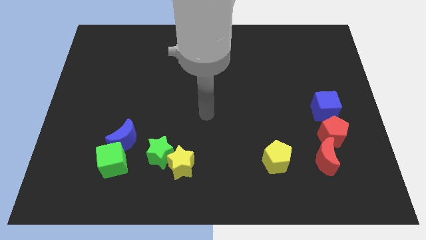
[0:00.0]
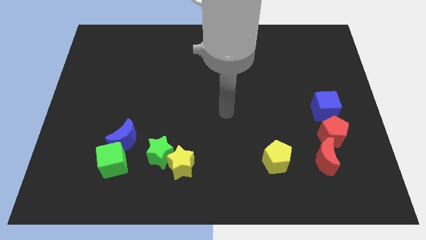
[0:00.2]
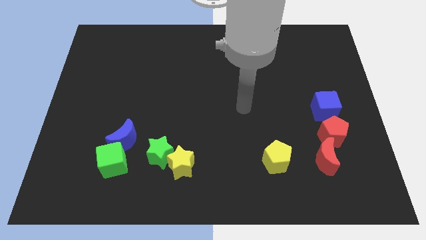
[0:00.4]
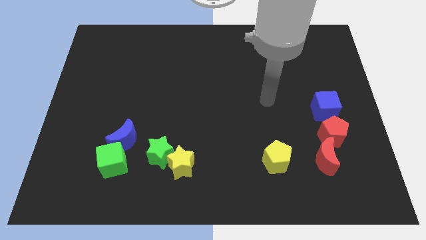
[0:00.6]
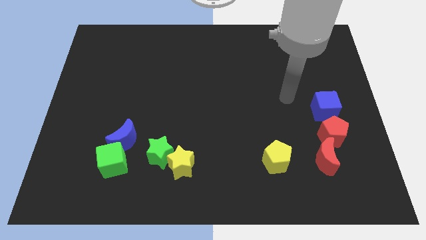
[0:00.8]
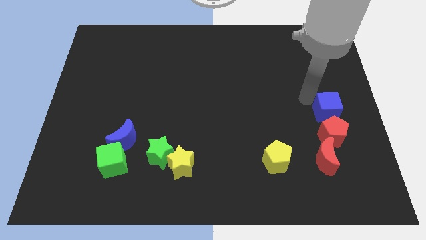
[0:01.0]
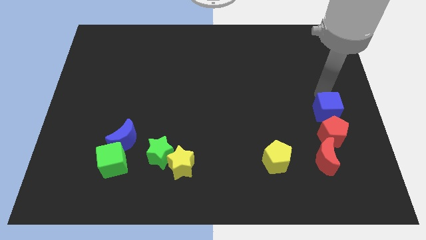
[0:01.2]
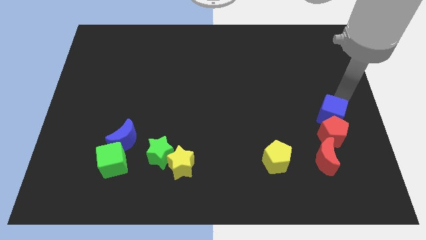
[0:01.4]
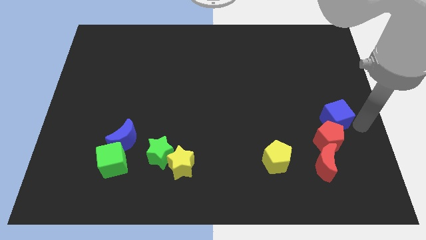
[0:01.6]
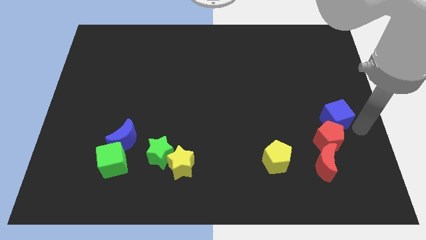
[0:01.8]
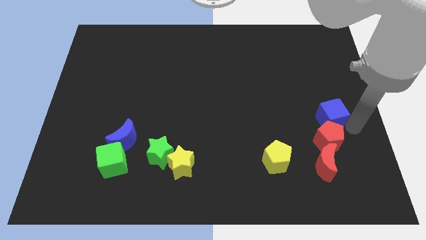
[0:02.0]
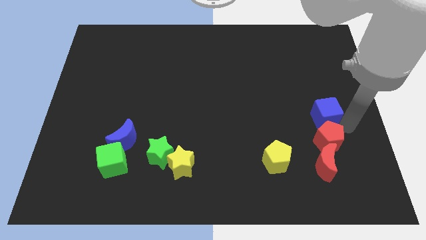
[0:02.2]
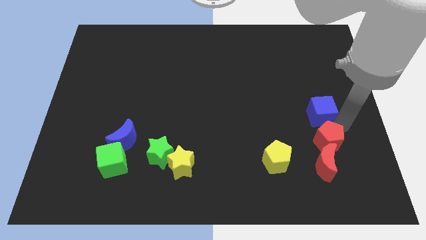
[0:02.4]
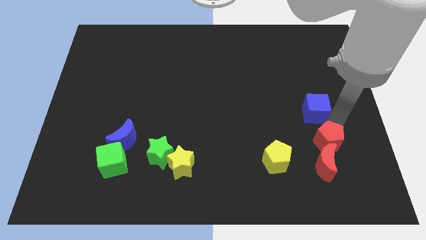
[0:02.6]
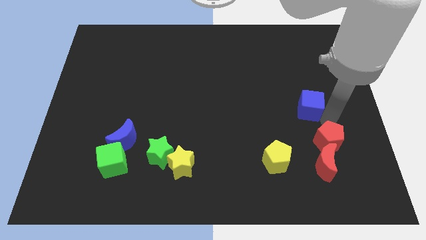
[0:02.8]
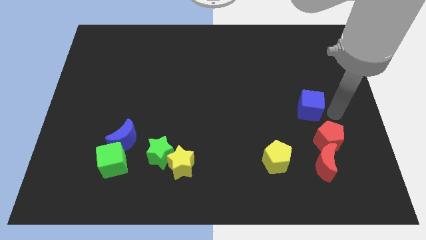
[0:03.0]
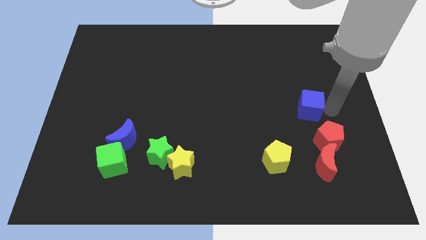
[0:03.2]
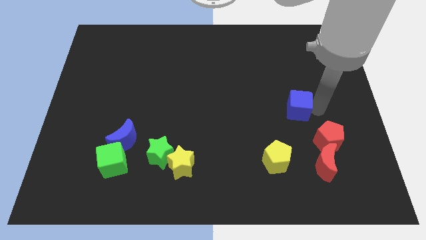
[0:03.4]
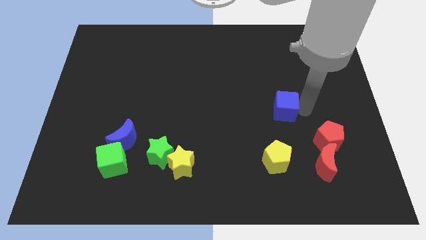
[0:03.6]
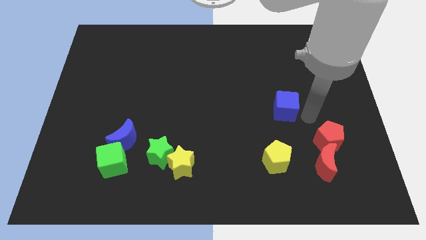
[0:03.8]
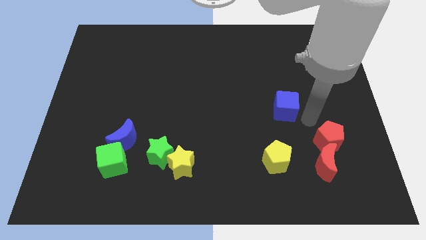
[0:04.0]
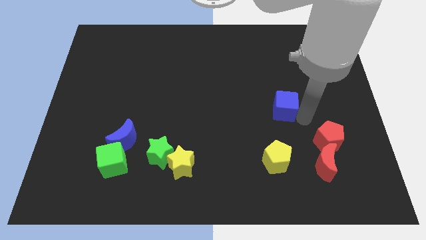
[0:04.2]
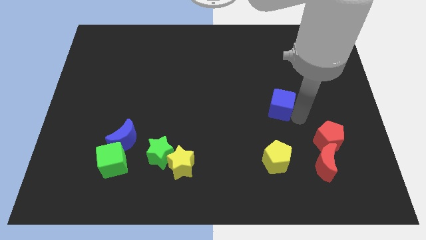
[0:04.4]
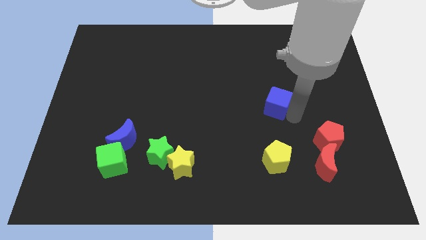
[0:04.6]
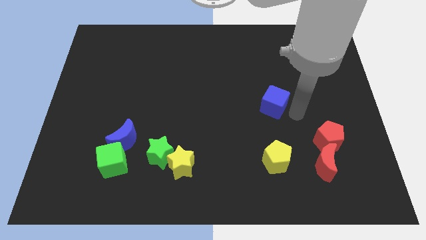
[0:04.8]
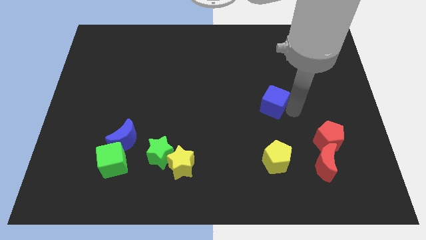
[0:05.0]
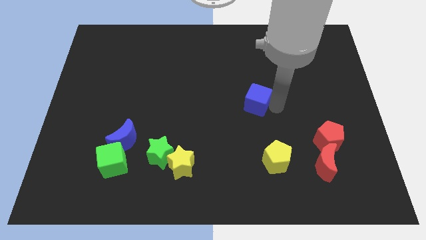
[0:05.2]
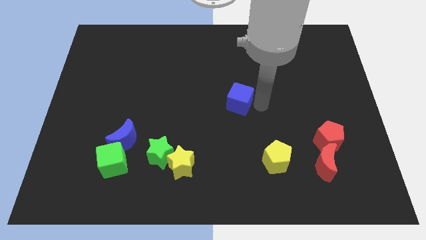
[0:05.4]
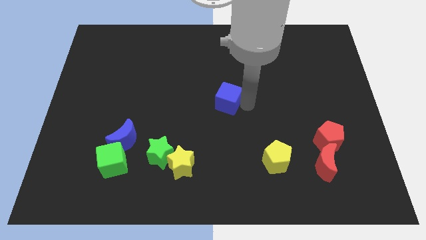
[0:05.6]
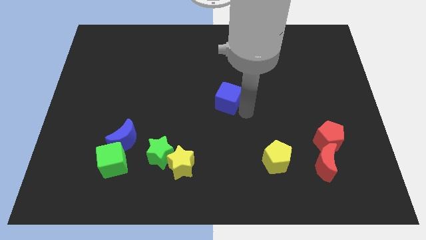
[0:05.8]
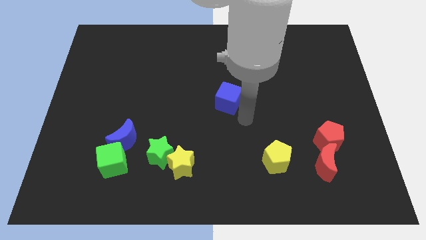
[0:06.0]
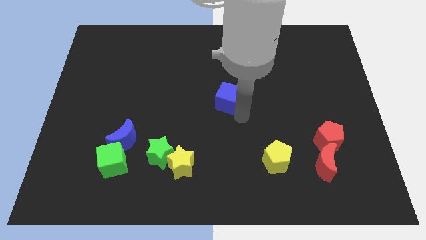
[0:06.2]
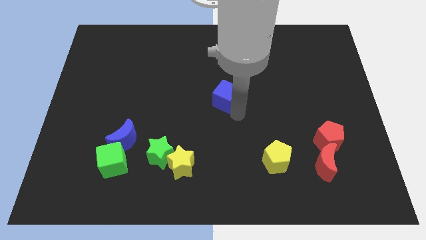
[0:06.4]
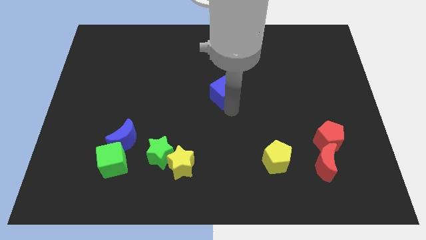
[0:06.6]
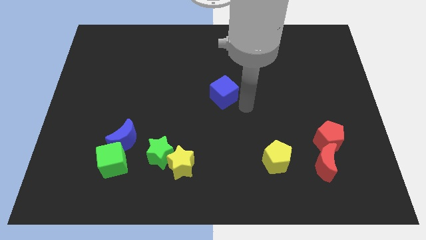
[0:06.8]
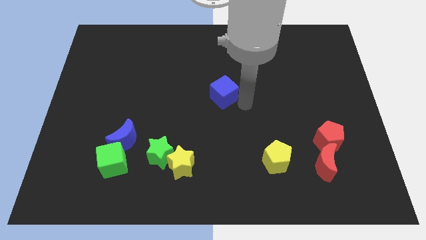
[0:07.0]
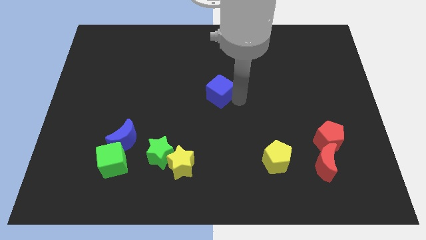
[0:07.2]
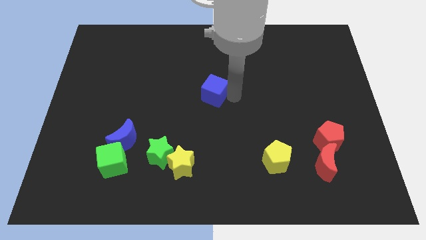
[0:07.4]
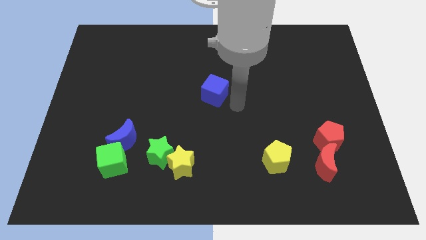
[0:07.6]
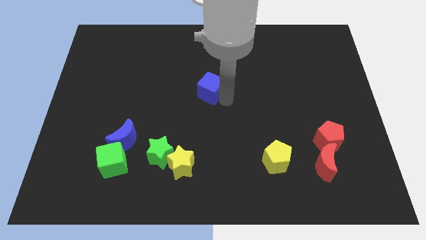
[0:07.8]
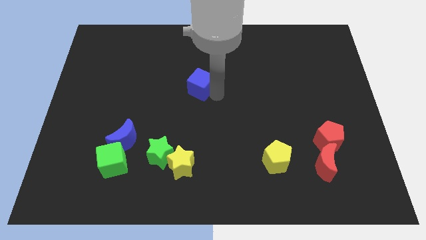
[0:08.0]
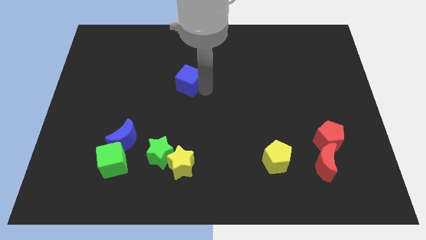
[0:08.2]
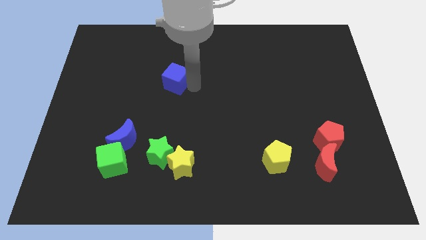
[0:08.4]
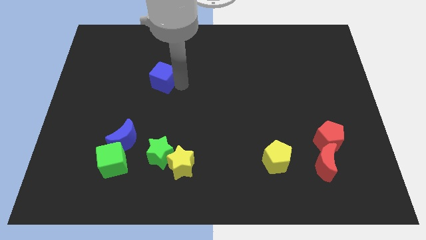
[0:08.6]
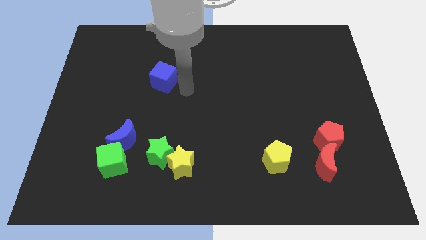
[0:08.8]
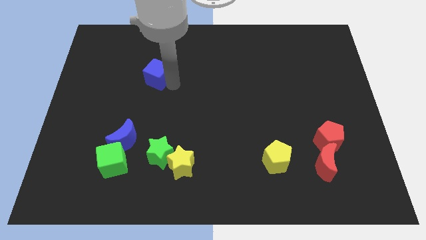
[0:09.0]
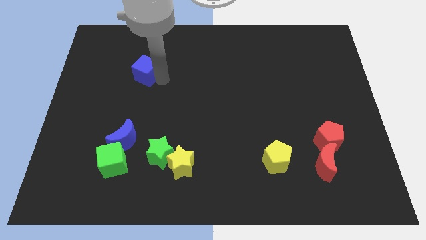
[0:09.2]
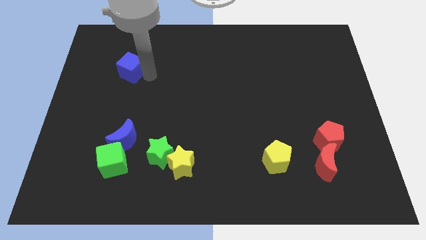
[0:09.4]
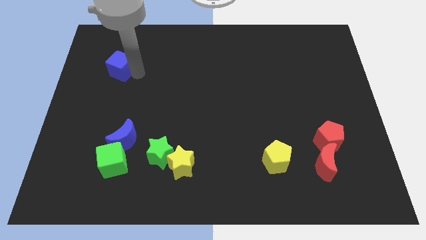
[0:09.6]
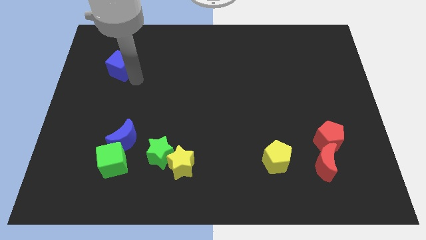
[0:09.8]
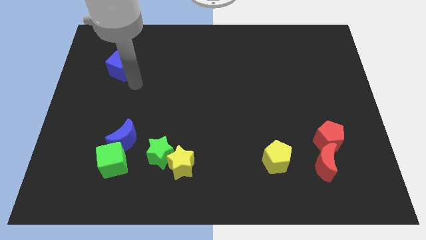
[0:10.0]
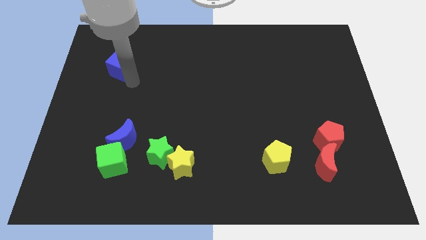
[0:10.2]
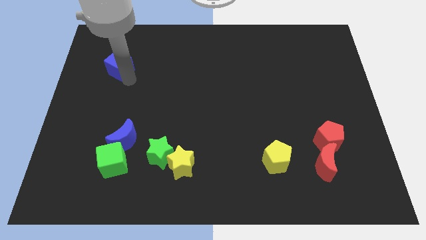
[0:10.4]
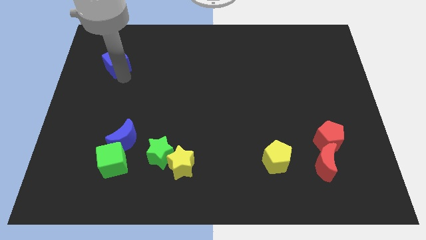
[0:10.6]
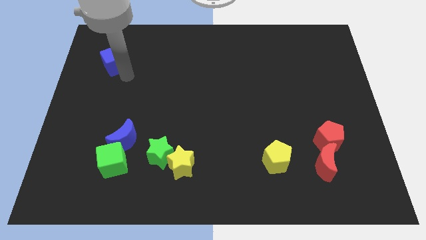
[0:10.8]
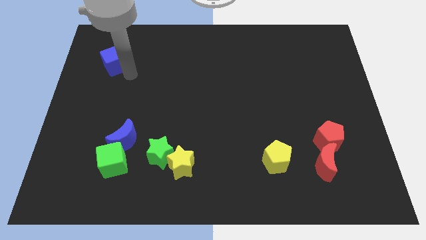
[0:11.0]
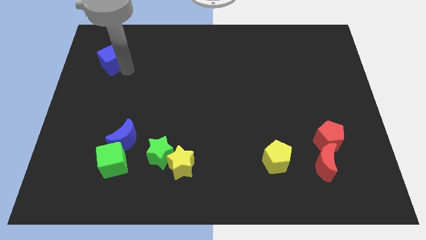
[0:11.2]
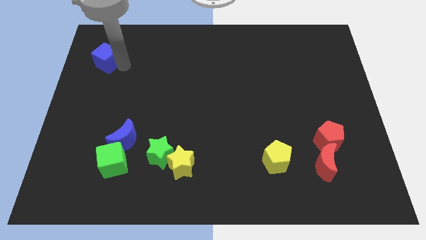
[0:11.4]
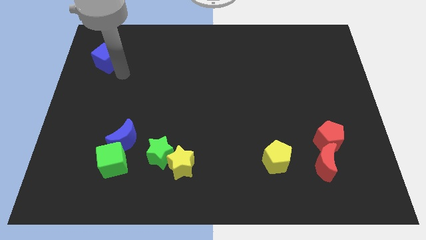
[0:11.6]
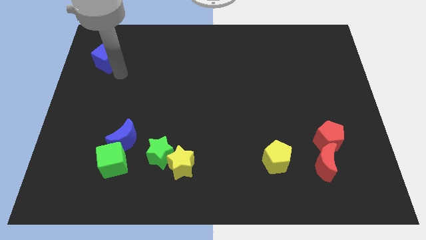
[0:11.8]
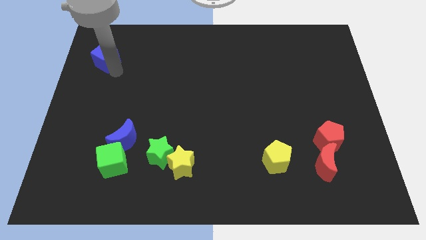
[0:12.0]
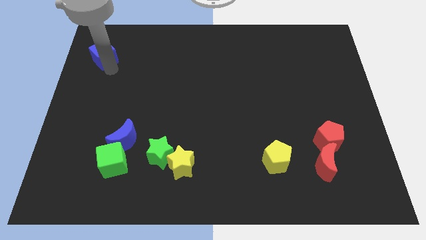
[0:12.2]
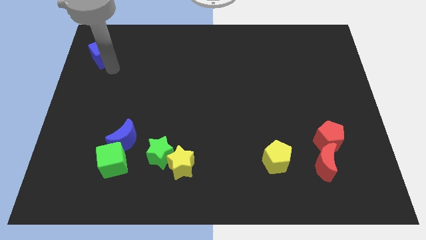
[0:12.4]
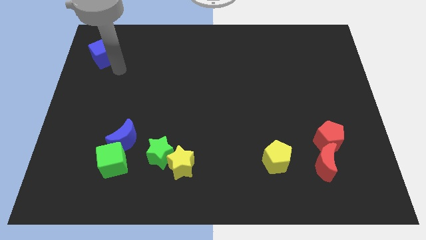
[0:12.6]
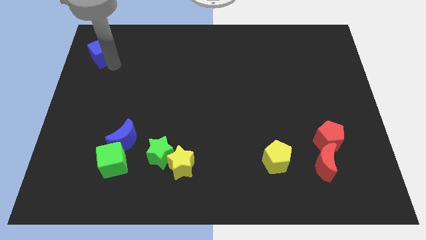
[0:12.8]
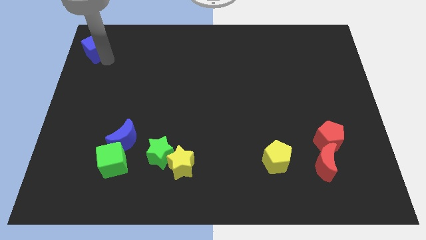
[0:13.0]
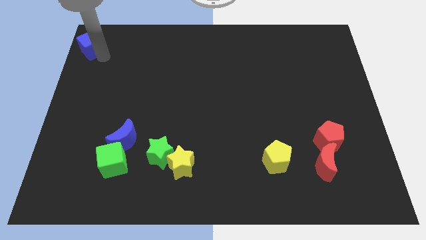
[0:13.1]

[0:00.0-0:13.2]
push the blue cube to the top left
